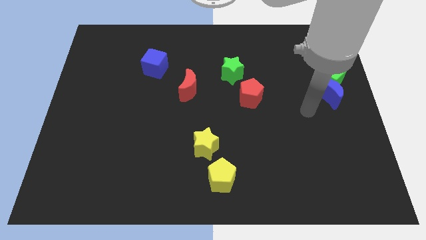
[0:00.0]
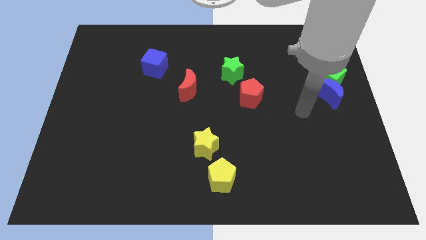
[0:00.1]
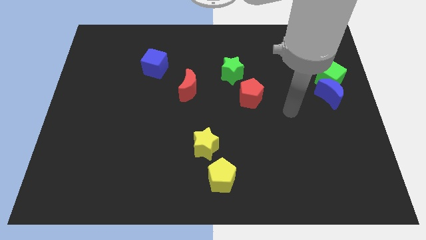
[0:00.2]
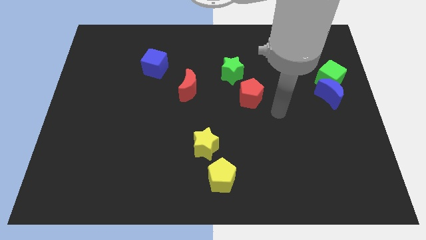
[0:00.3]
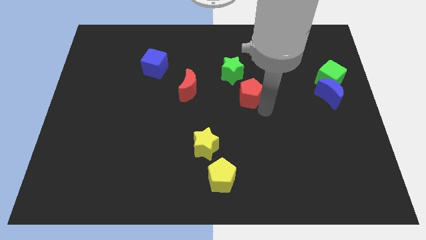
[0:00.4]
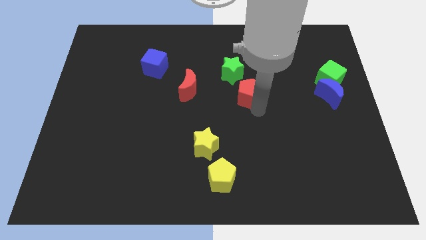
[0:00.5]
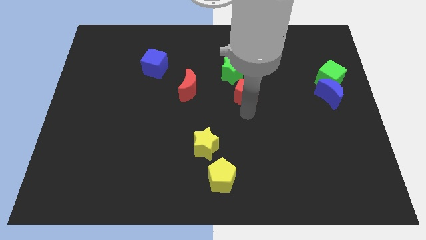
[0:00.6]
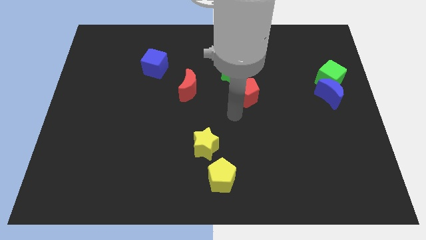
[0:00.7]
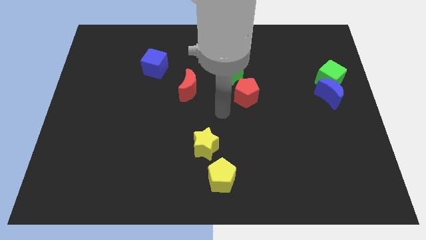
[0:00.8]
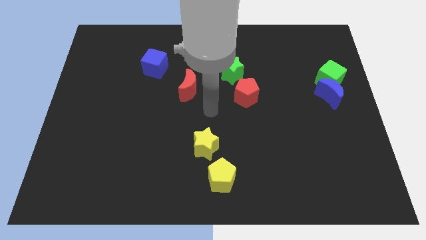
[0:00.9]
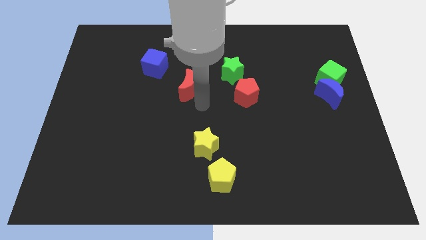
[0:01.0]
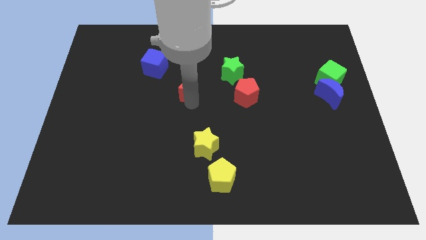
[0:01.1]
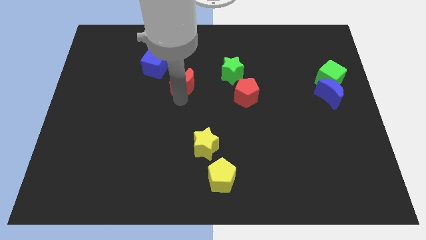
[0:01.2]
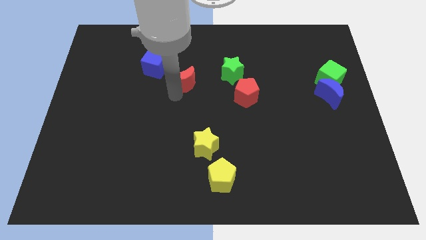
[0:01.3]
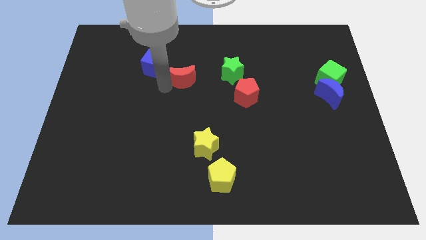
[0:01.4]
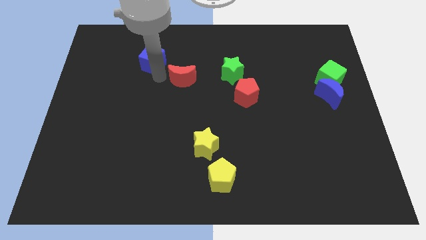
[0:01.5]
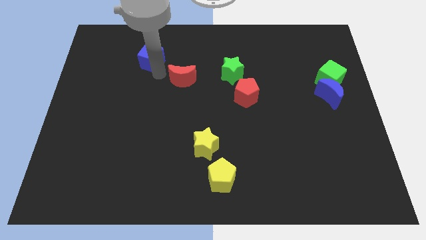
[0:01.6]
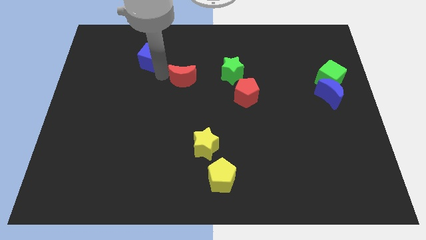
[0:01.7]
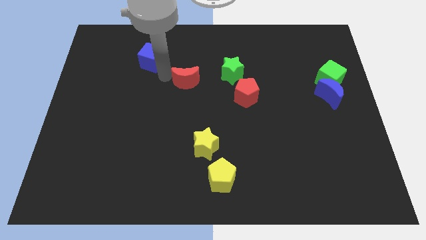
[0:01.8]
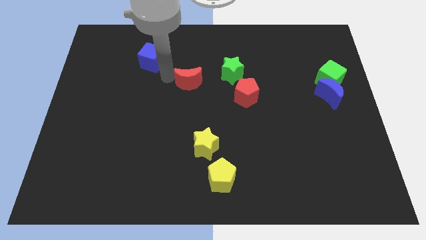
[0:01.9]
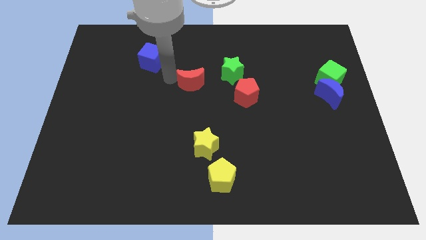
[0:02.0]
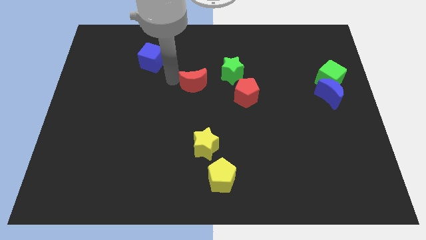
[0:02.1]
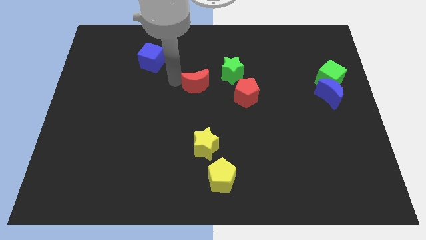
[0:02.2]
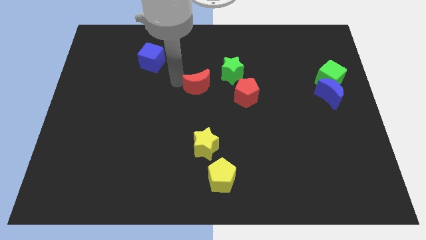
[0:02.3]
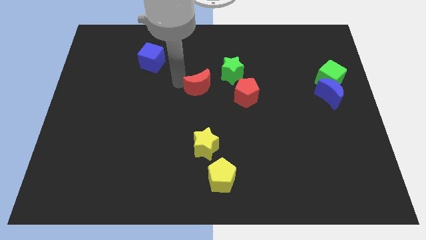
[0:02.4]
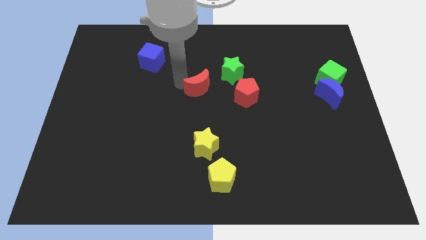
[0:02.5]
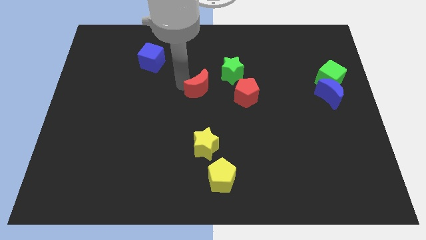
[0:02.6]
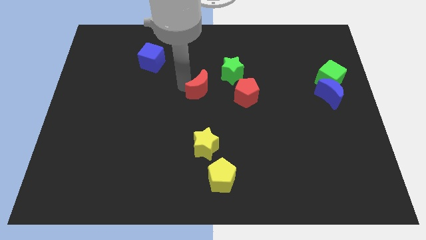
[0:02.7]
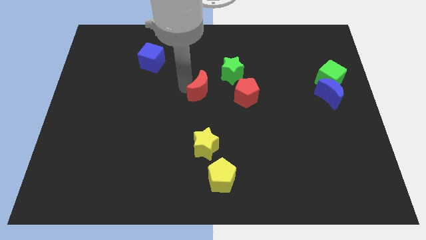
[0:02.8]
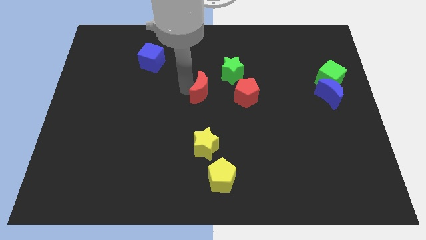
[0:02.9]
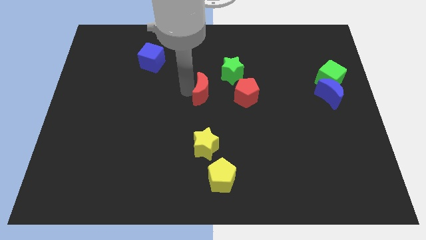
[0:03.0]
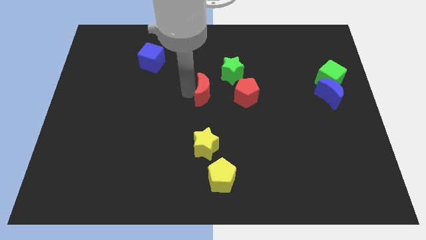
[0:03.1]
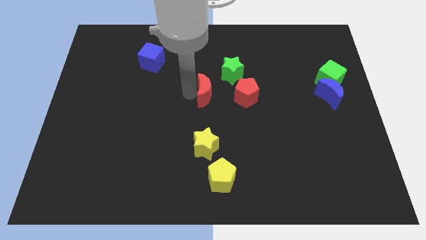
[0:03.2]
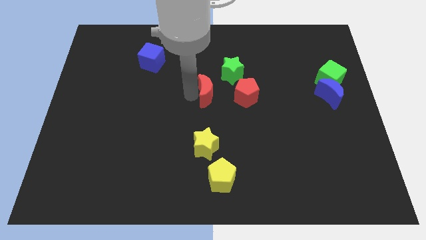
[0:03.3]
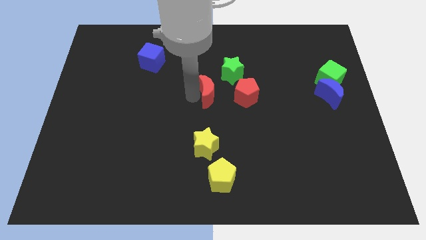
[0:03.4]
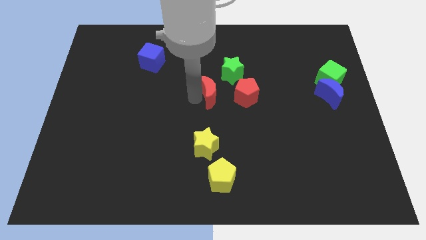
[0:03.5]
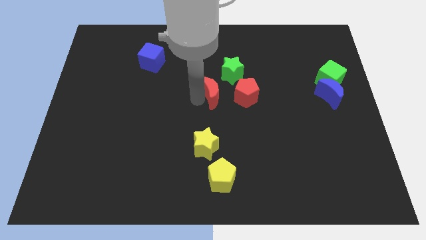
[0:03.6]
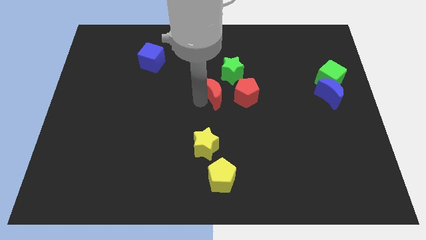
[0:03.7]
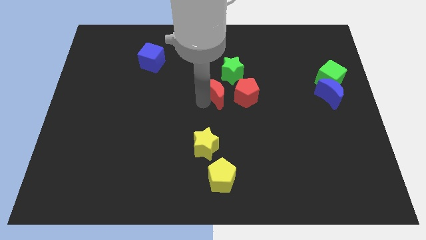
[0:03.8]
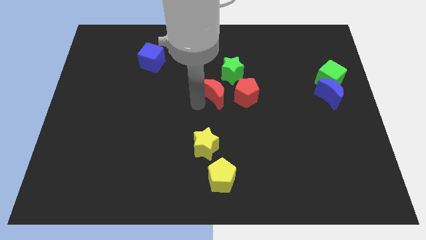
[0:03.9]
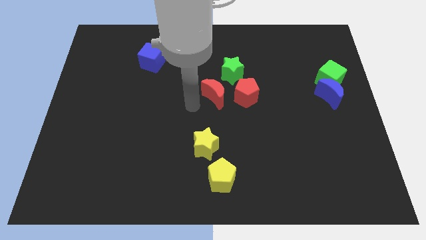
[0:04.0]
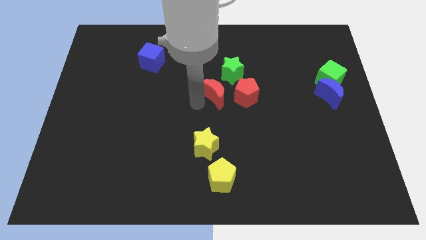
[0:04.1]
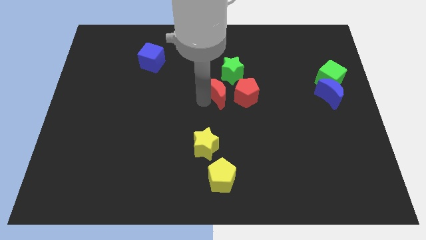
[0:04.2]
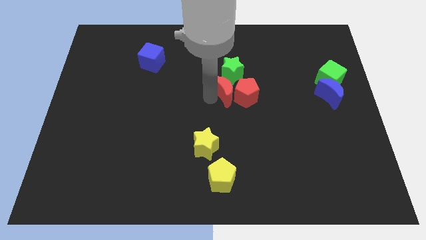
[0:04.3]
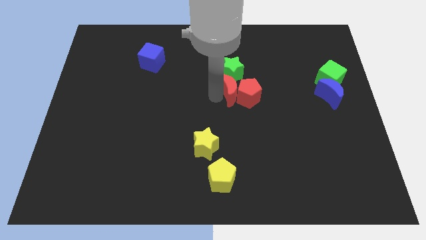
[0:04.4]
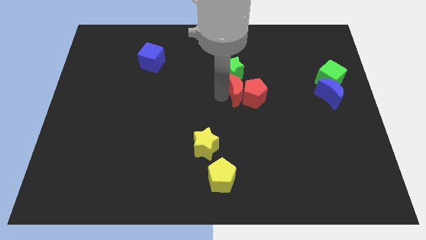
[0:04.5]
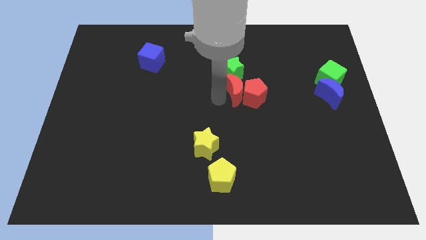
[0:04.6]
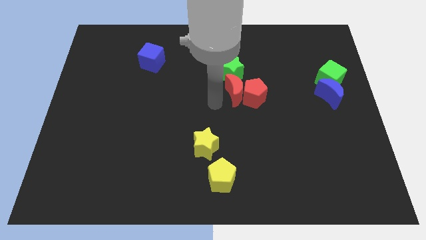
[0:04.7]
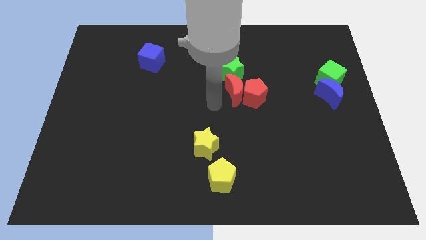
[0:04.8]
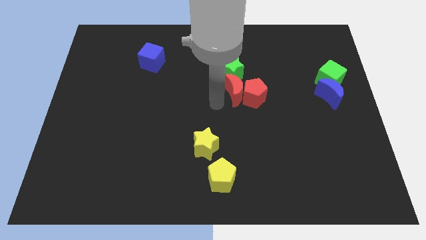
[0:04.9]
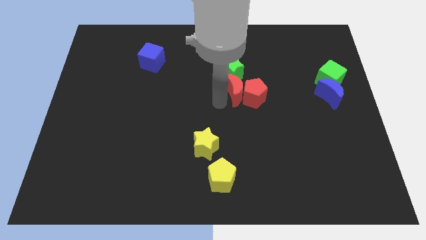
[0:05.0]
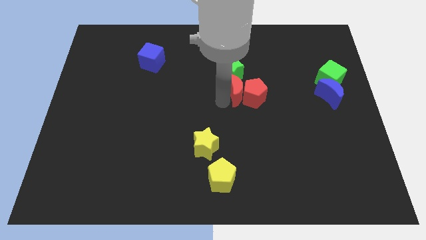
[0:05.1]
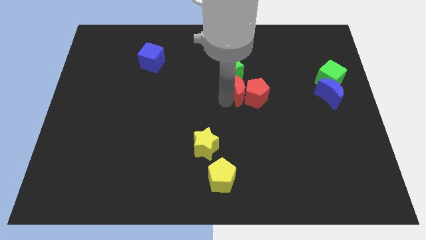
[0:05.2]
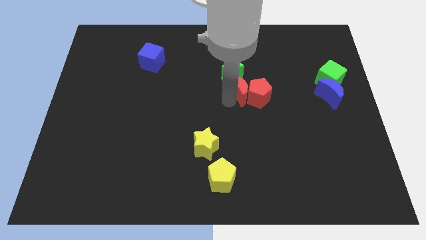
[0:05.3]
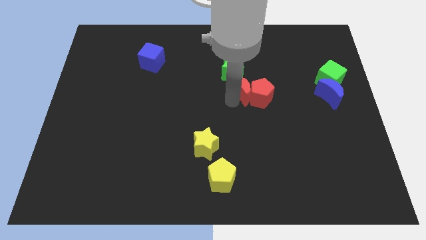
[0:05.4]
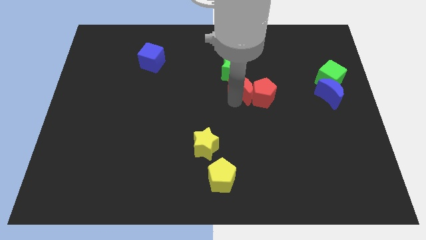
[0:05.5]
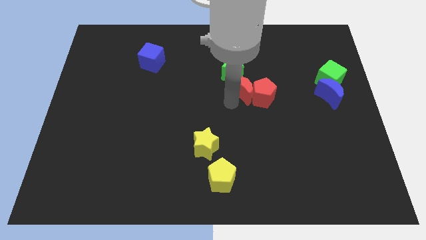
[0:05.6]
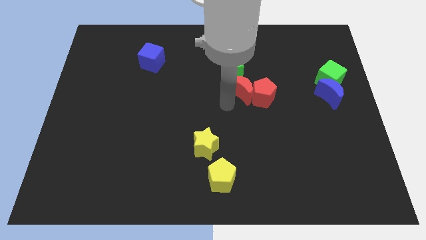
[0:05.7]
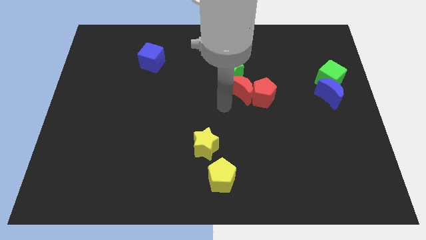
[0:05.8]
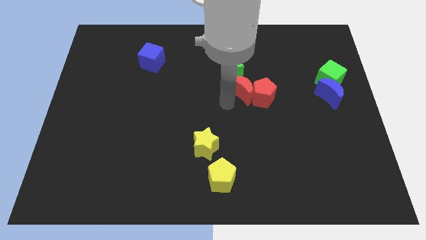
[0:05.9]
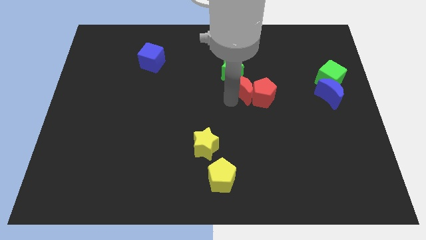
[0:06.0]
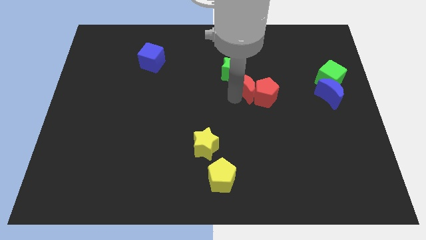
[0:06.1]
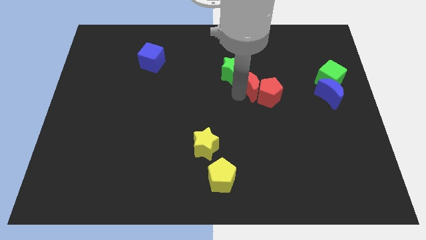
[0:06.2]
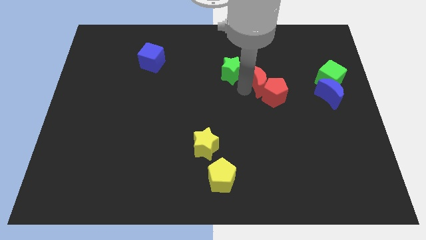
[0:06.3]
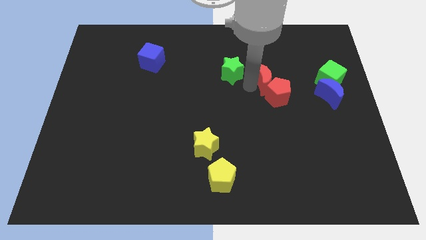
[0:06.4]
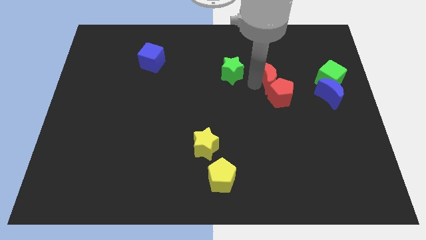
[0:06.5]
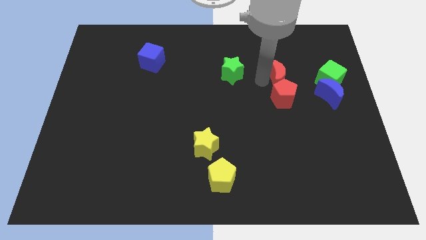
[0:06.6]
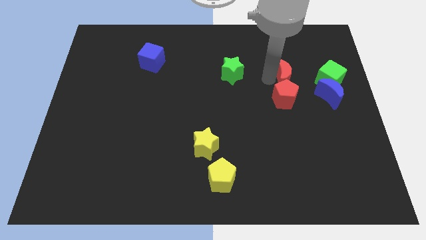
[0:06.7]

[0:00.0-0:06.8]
push the red moon to the top left side of the blue moon

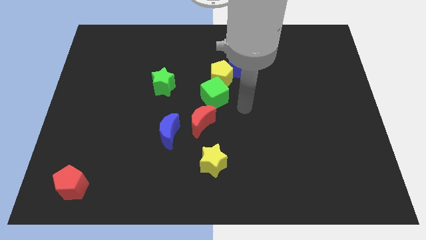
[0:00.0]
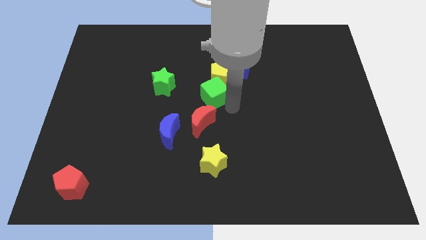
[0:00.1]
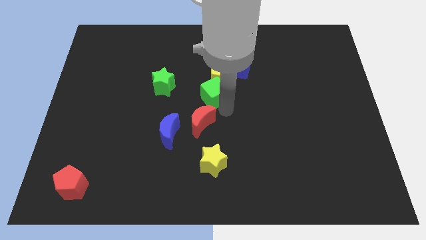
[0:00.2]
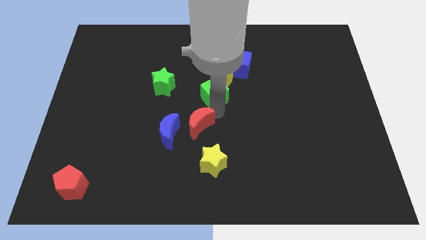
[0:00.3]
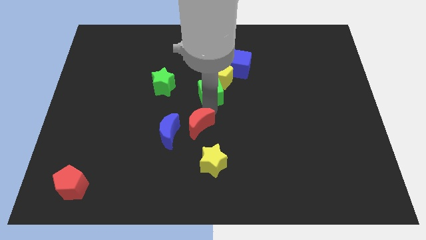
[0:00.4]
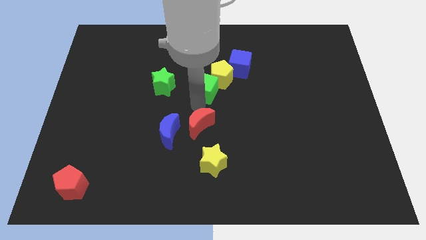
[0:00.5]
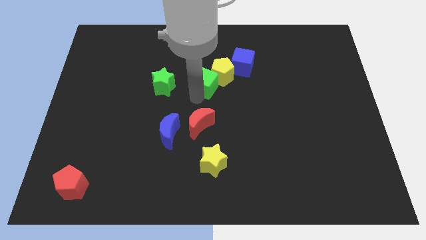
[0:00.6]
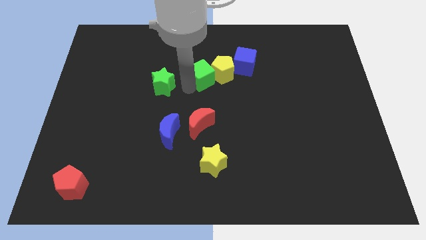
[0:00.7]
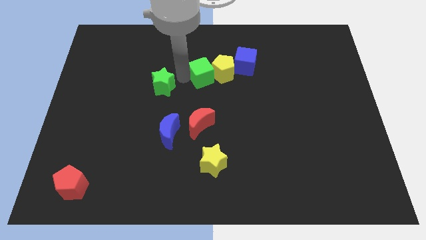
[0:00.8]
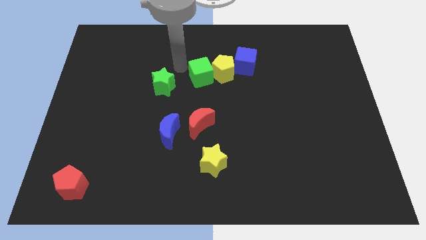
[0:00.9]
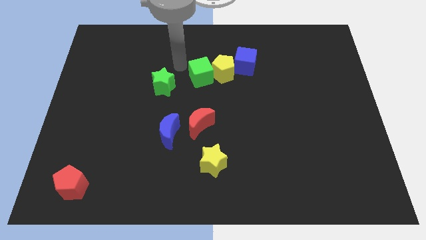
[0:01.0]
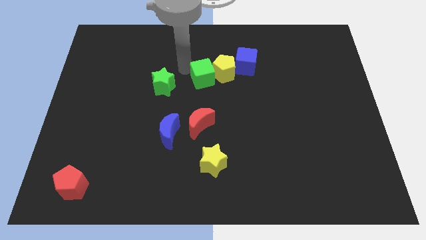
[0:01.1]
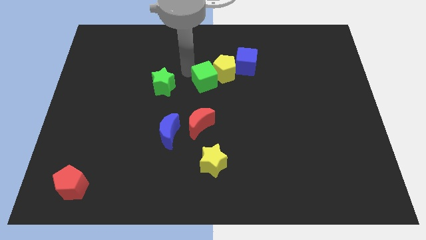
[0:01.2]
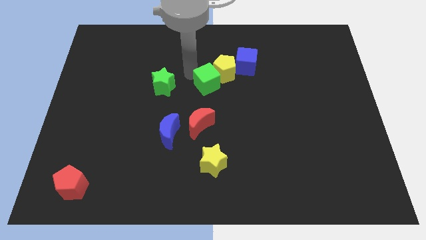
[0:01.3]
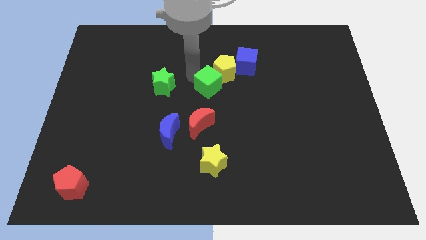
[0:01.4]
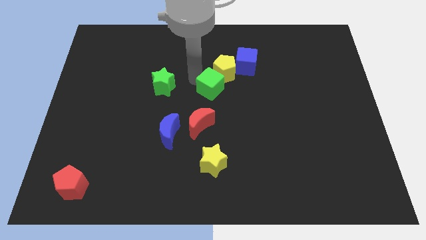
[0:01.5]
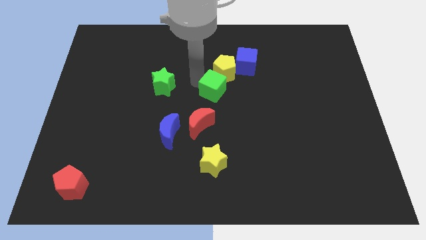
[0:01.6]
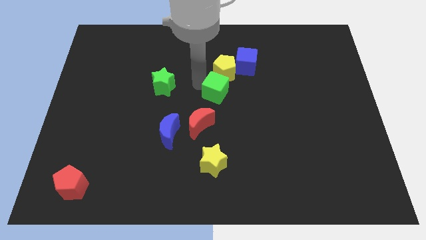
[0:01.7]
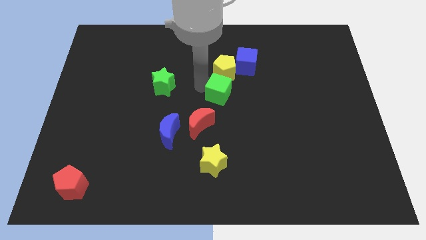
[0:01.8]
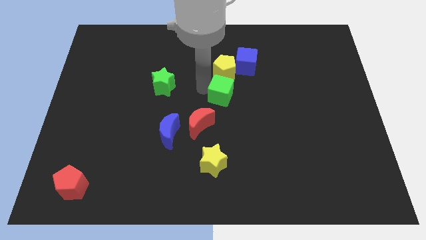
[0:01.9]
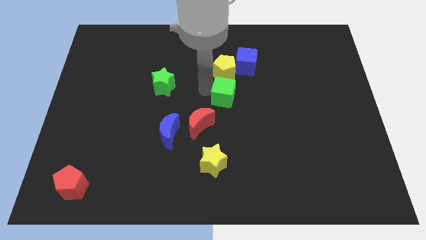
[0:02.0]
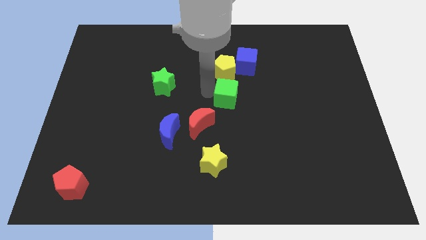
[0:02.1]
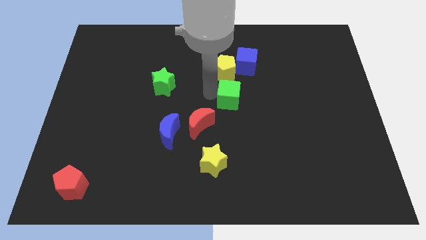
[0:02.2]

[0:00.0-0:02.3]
move the green cube to the bottom of the blue cube
